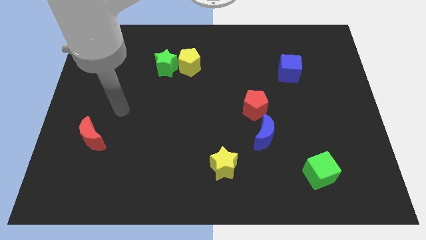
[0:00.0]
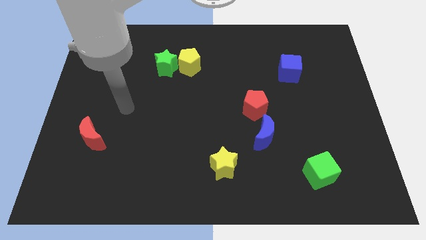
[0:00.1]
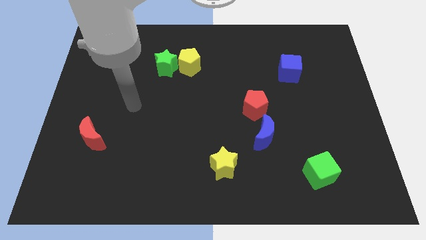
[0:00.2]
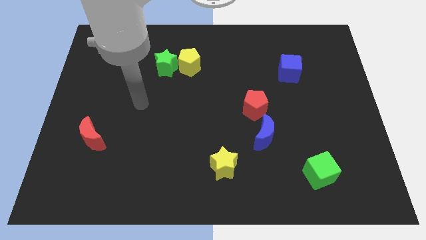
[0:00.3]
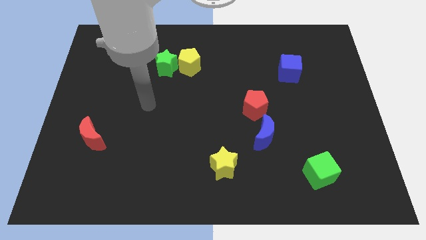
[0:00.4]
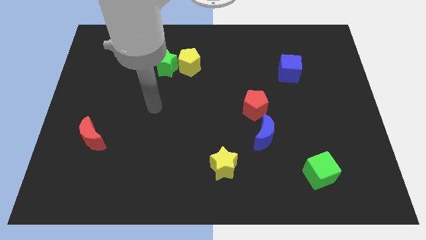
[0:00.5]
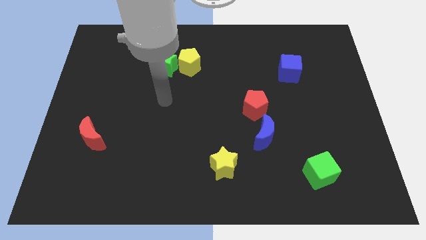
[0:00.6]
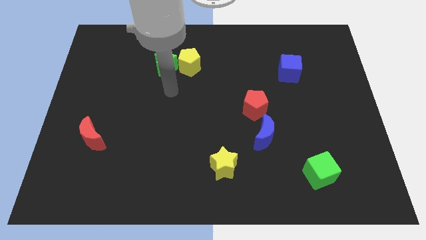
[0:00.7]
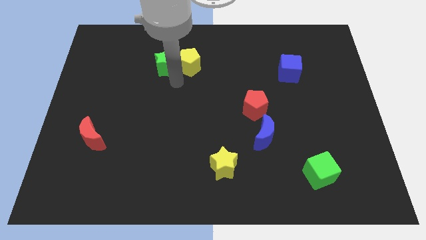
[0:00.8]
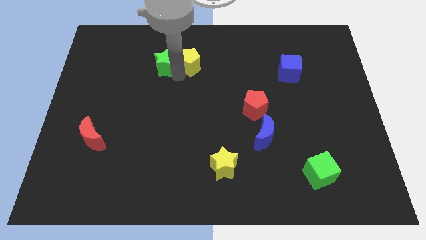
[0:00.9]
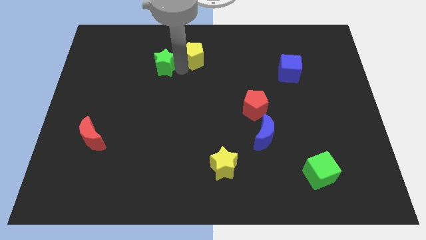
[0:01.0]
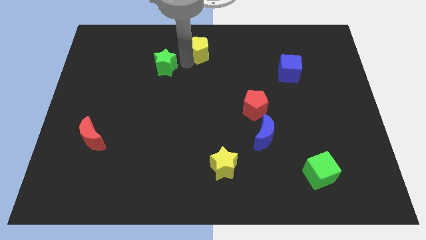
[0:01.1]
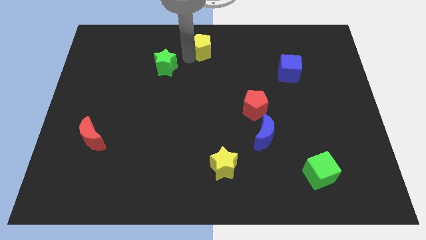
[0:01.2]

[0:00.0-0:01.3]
move the green star away from the yellow pentagon

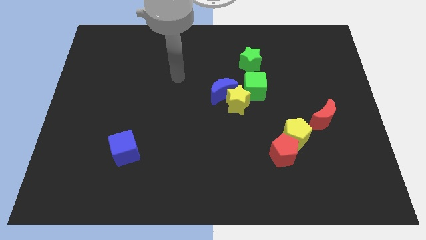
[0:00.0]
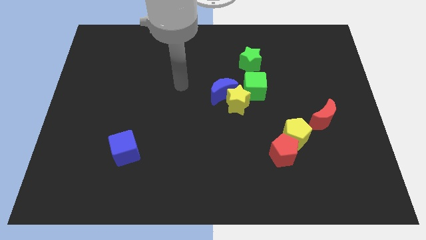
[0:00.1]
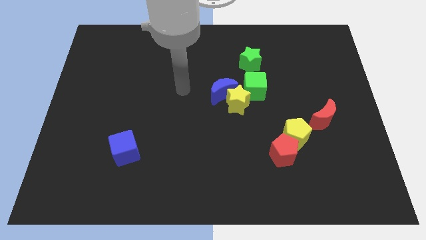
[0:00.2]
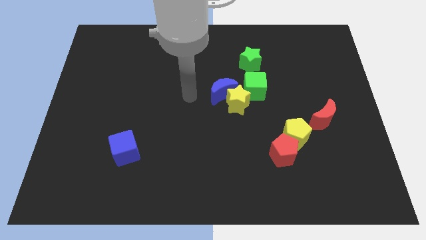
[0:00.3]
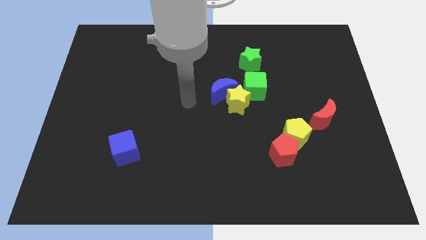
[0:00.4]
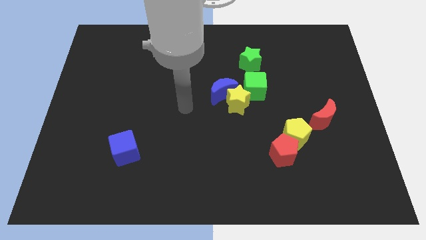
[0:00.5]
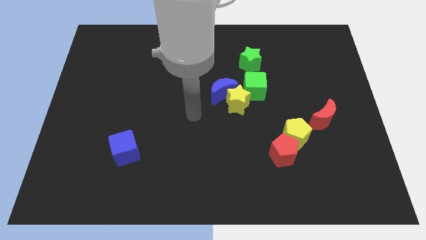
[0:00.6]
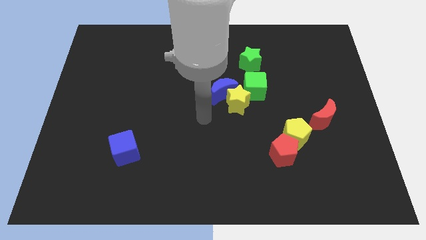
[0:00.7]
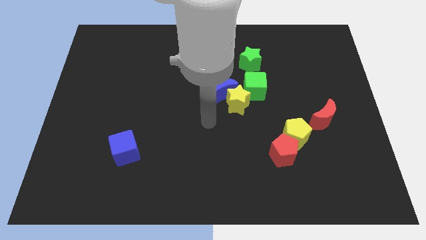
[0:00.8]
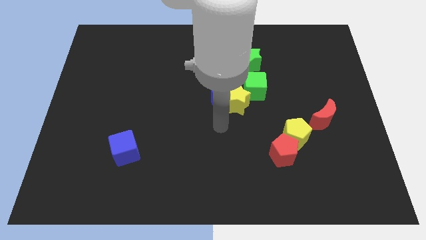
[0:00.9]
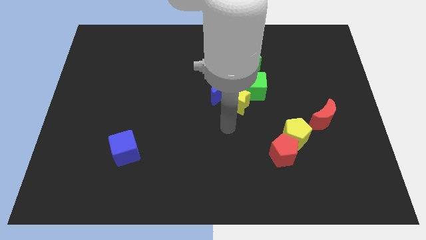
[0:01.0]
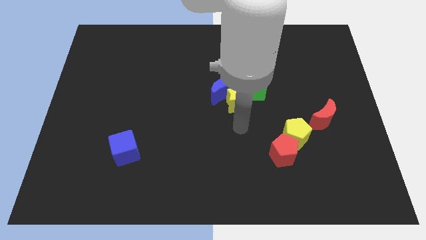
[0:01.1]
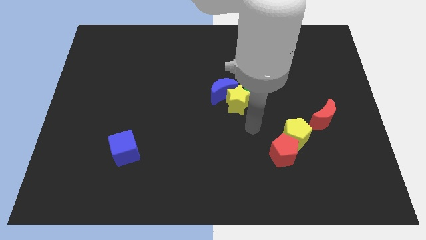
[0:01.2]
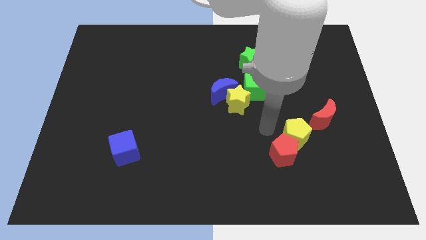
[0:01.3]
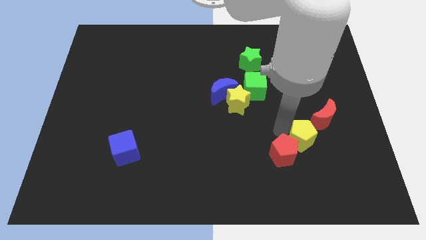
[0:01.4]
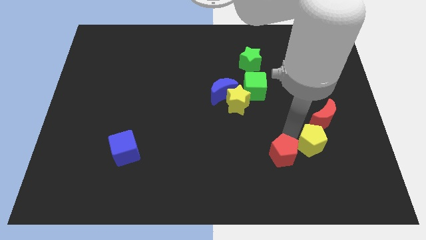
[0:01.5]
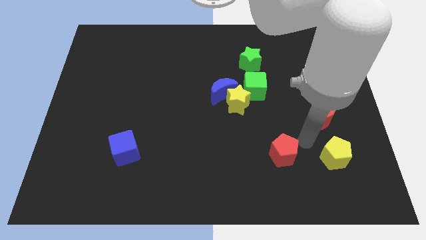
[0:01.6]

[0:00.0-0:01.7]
move the red pentagon away from the yellow pentagon

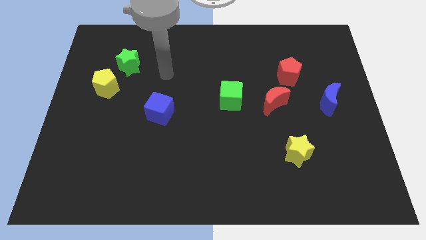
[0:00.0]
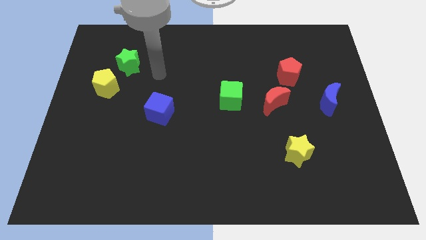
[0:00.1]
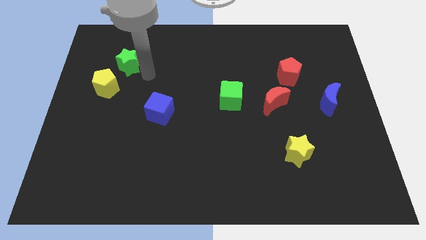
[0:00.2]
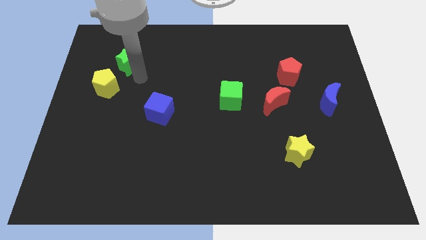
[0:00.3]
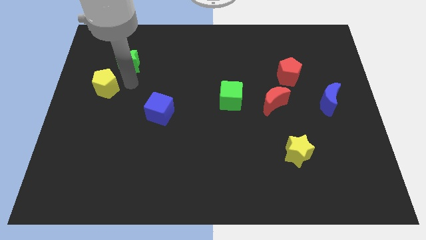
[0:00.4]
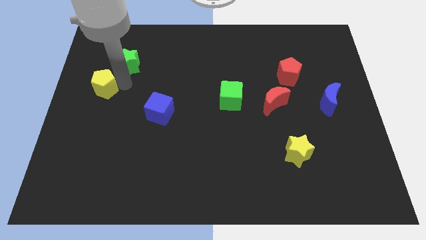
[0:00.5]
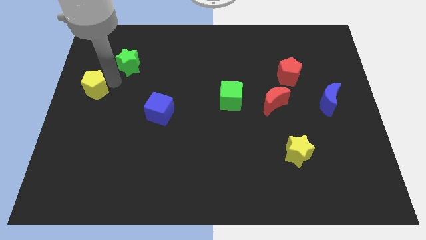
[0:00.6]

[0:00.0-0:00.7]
separate the green star from the yellow pentagon

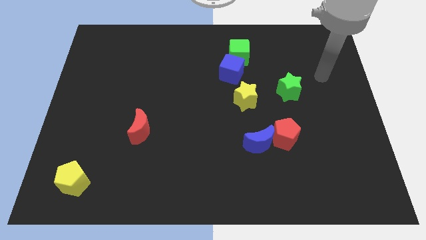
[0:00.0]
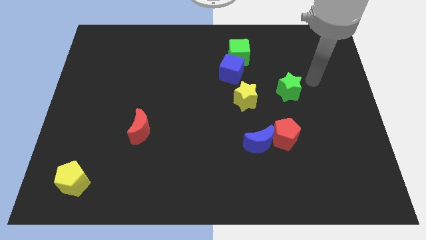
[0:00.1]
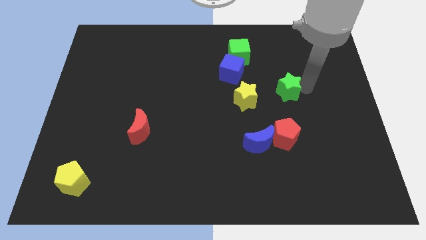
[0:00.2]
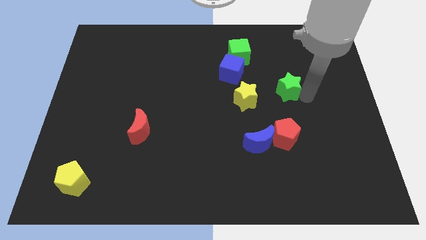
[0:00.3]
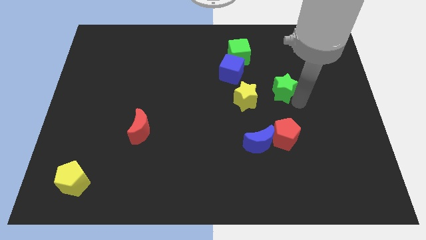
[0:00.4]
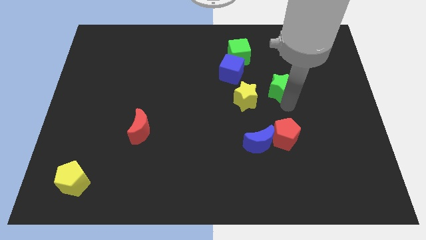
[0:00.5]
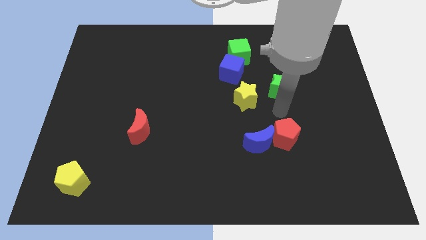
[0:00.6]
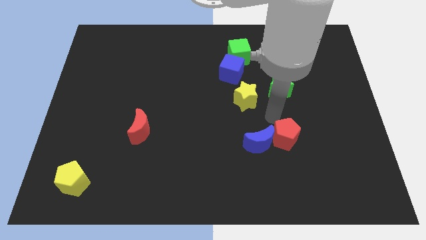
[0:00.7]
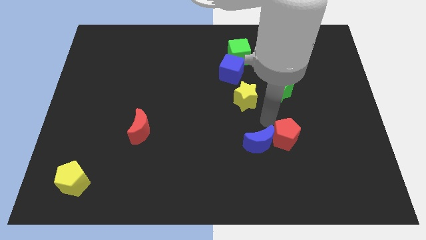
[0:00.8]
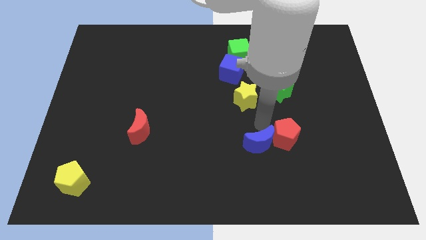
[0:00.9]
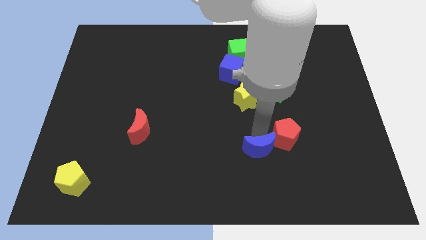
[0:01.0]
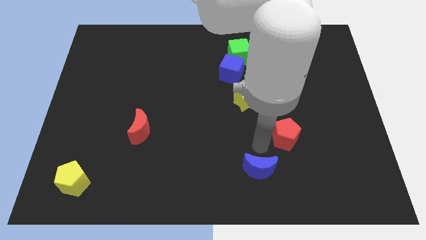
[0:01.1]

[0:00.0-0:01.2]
separate the red pentagon from the blue moon

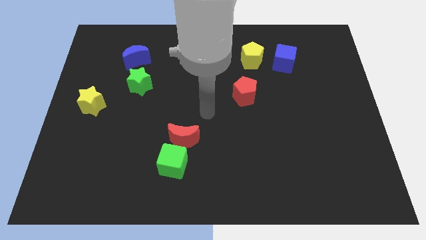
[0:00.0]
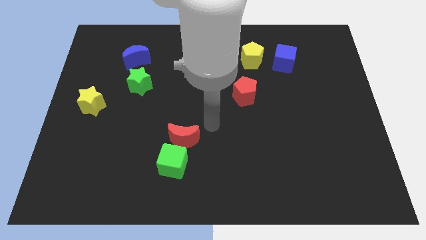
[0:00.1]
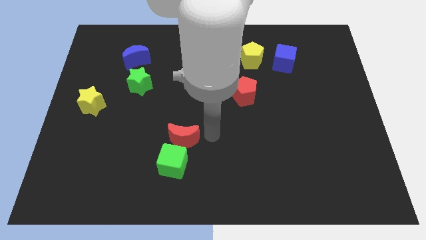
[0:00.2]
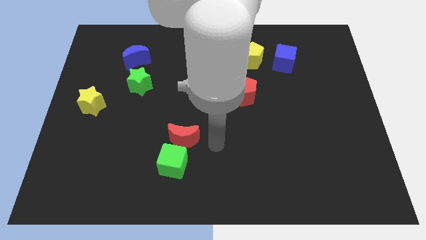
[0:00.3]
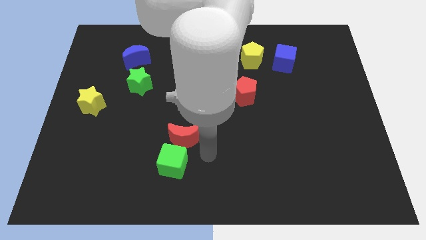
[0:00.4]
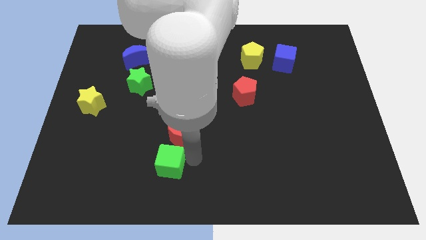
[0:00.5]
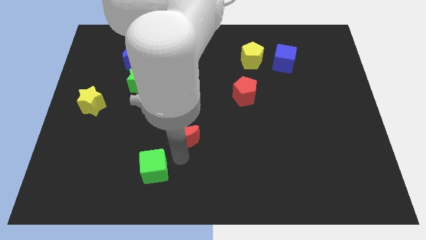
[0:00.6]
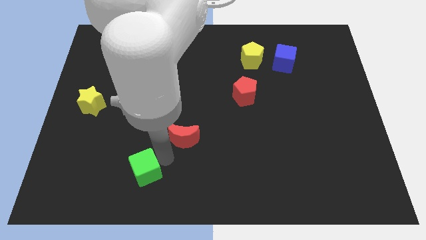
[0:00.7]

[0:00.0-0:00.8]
separate the red moon from the green cube

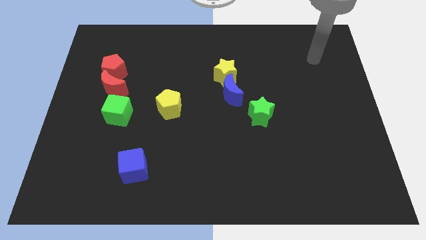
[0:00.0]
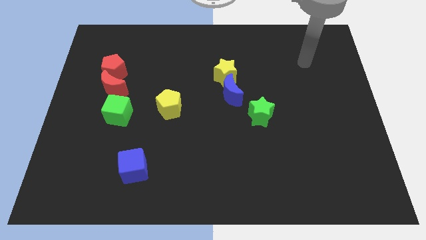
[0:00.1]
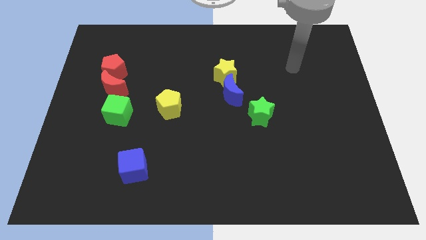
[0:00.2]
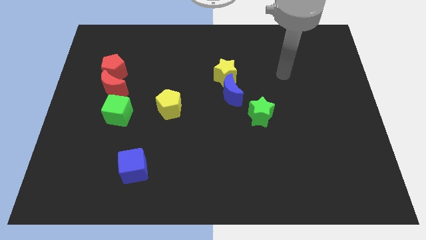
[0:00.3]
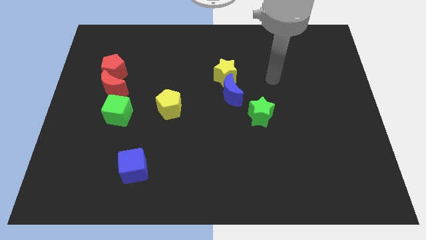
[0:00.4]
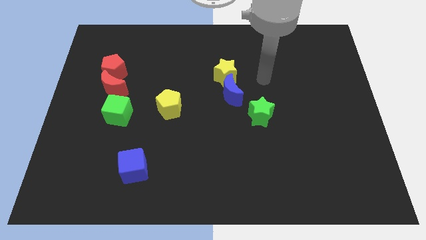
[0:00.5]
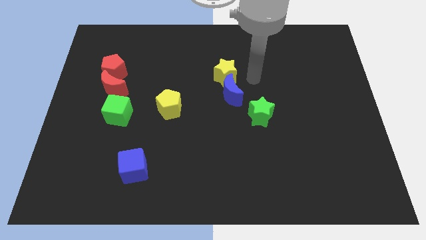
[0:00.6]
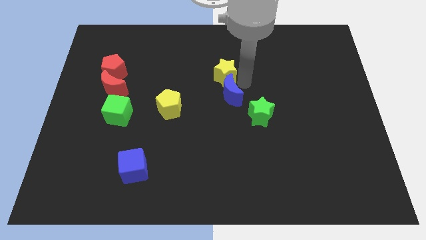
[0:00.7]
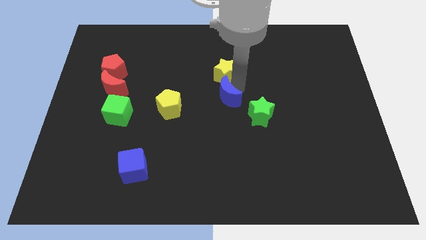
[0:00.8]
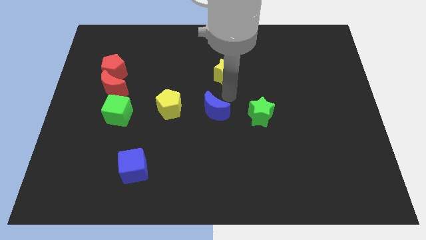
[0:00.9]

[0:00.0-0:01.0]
move the yellow star away from the blue moon

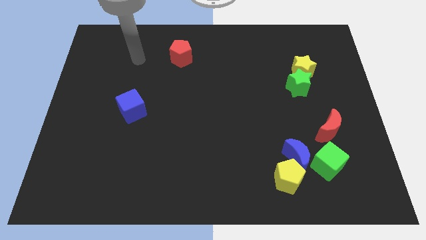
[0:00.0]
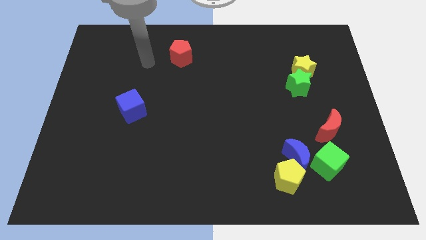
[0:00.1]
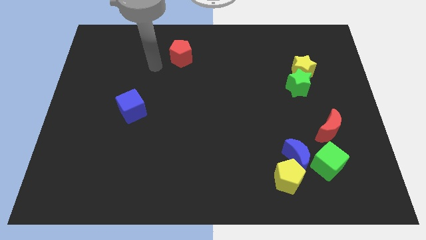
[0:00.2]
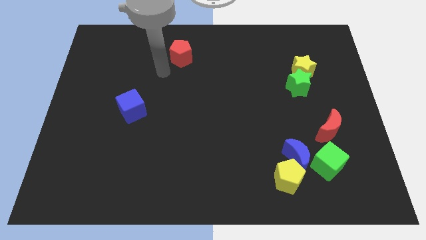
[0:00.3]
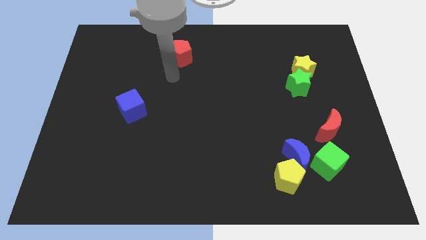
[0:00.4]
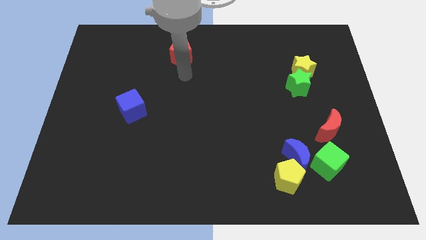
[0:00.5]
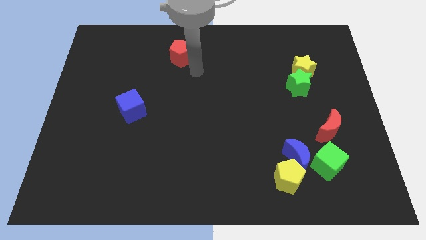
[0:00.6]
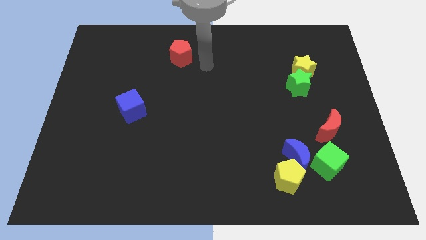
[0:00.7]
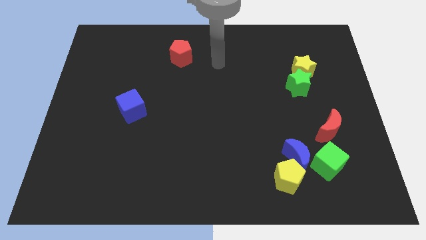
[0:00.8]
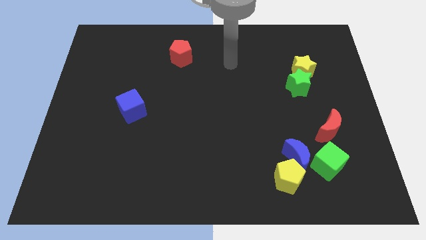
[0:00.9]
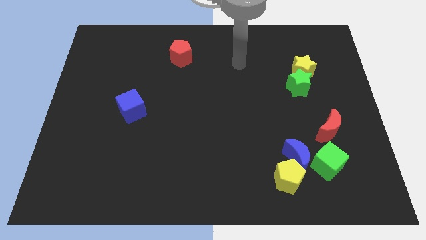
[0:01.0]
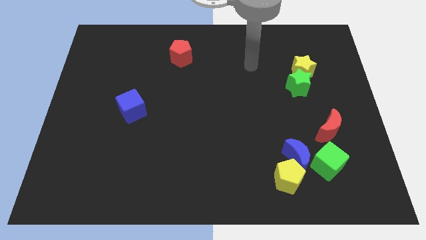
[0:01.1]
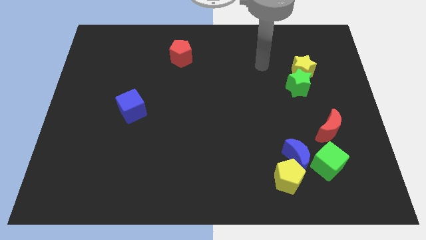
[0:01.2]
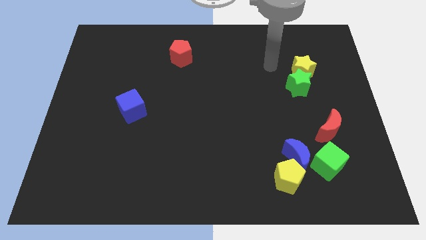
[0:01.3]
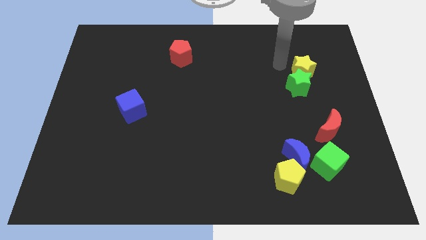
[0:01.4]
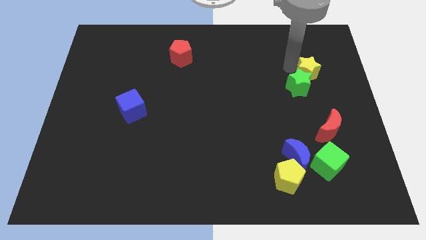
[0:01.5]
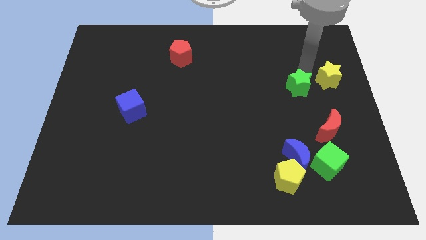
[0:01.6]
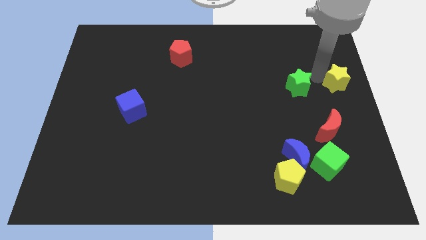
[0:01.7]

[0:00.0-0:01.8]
pull the green star apart from the yellow star

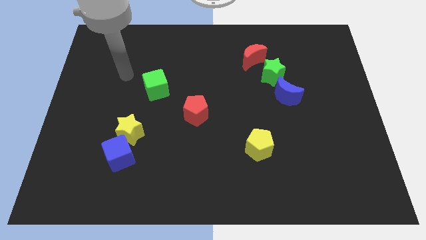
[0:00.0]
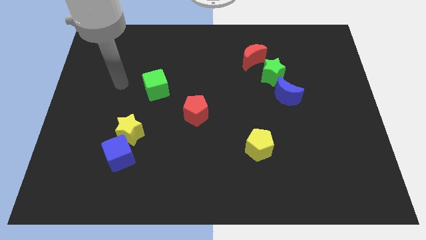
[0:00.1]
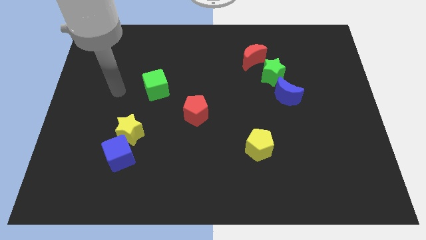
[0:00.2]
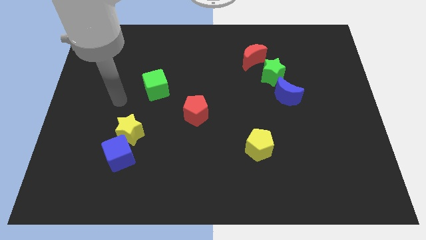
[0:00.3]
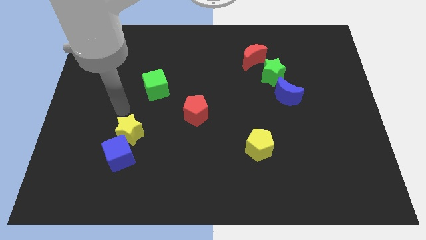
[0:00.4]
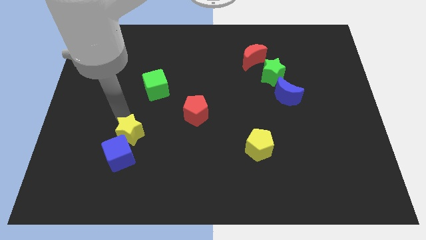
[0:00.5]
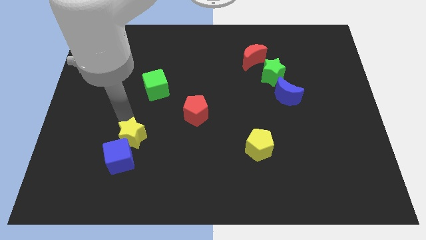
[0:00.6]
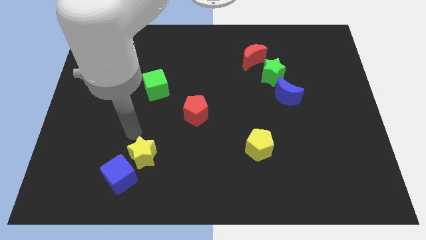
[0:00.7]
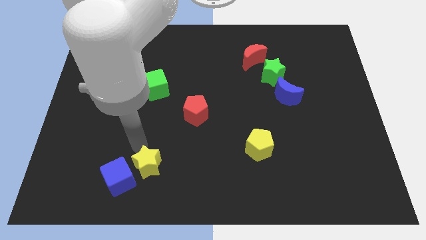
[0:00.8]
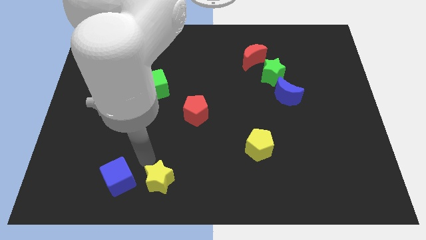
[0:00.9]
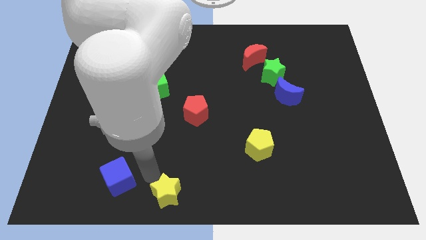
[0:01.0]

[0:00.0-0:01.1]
pull the blue cube apart from the yellow star
